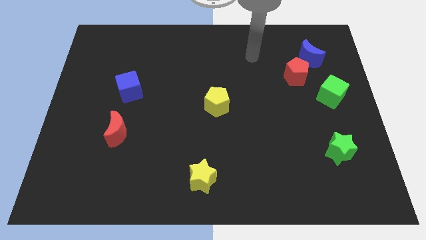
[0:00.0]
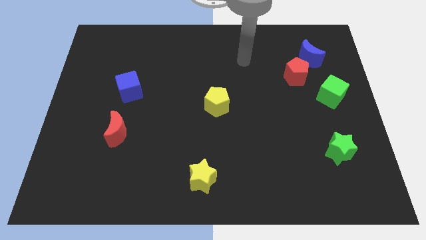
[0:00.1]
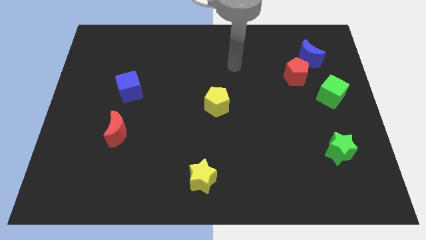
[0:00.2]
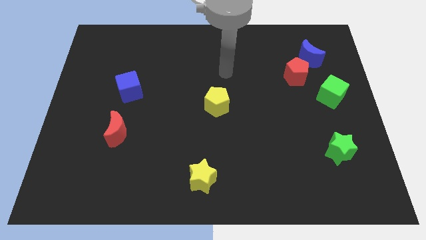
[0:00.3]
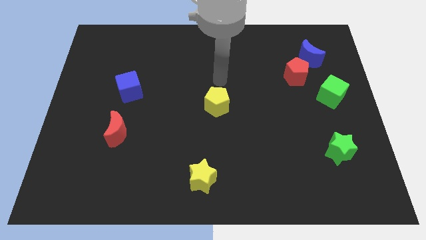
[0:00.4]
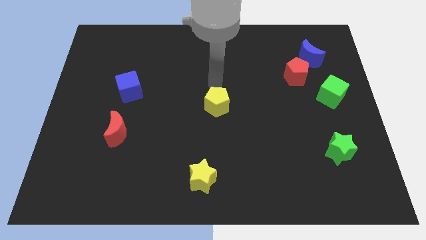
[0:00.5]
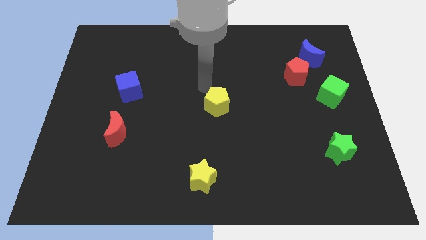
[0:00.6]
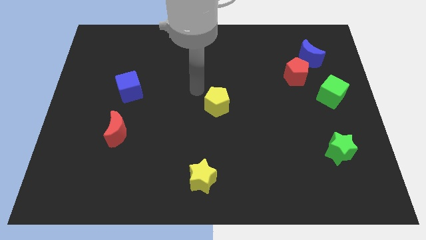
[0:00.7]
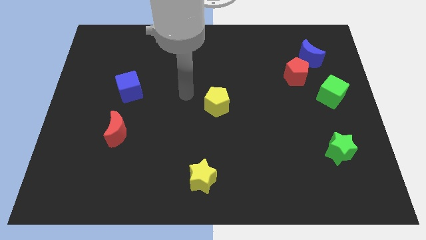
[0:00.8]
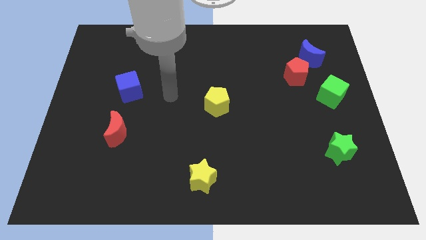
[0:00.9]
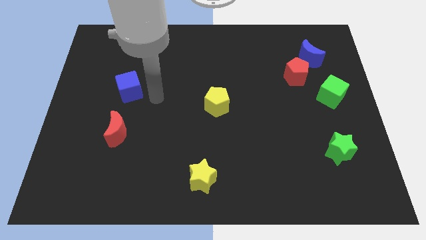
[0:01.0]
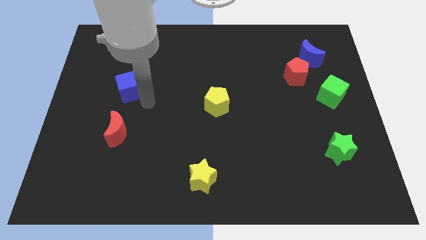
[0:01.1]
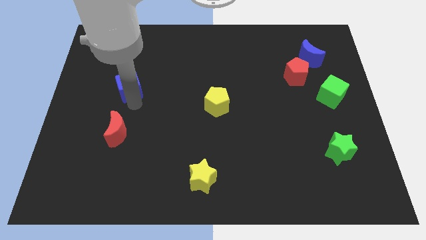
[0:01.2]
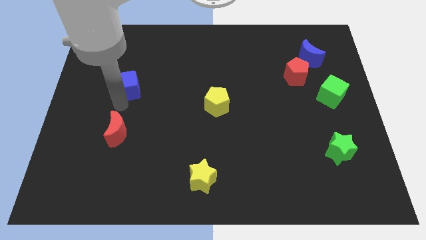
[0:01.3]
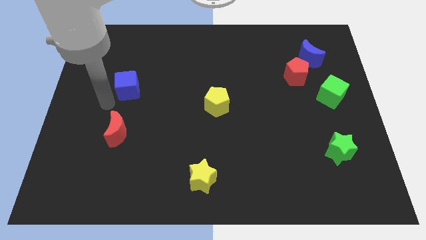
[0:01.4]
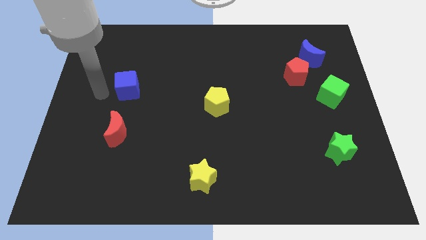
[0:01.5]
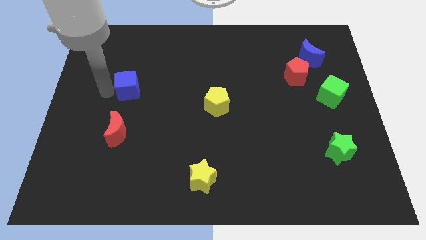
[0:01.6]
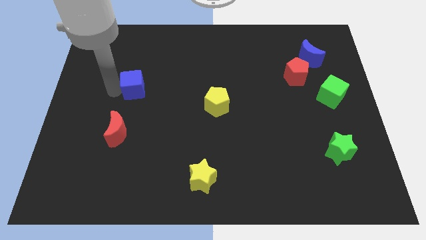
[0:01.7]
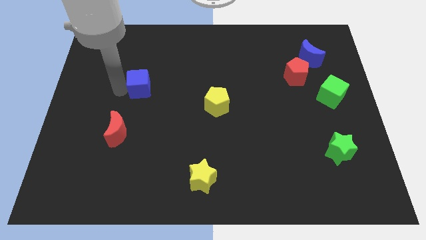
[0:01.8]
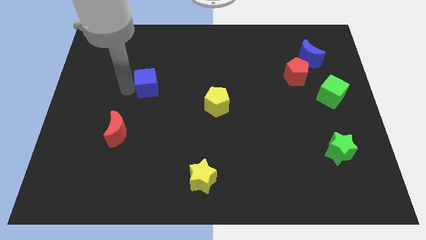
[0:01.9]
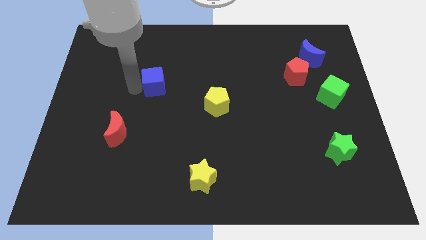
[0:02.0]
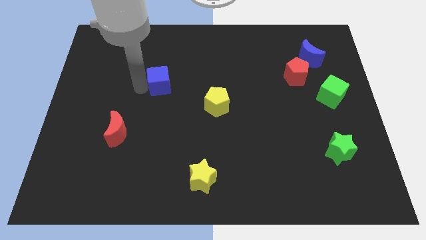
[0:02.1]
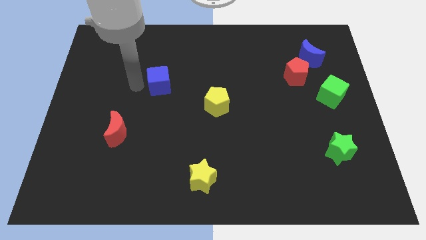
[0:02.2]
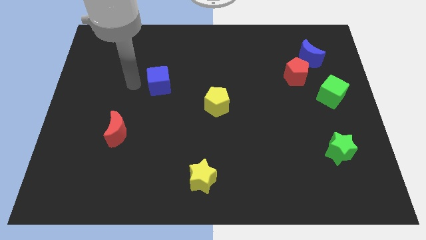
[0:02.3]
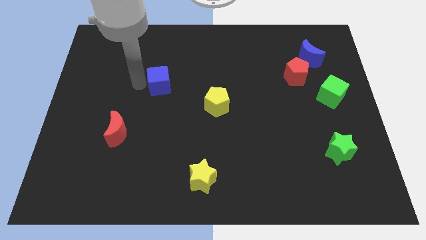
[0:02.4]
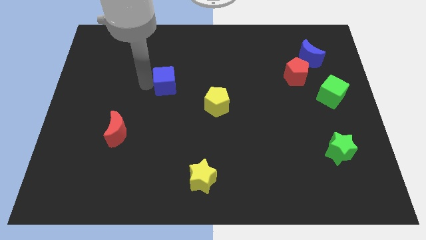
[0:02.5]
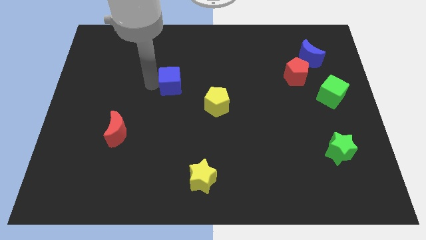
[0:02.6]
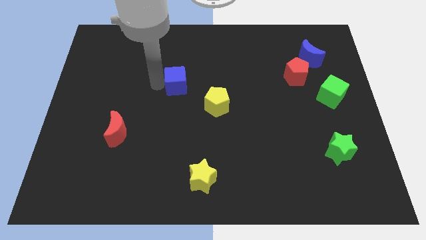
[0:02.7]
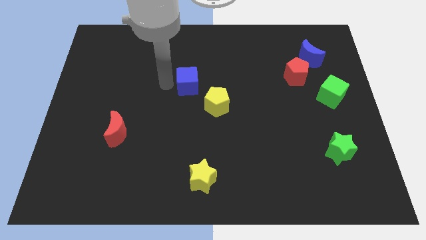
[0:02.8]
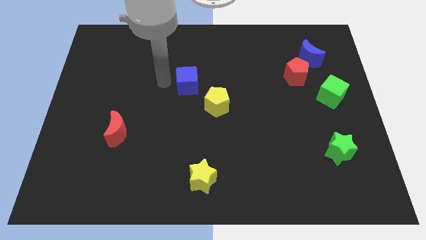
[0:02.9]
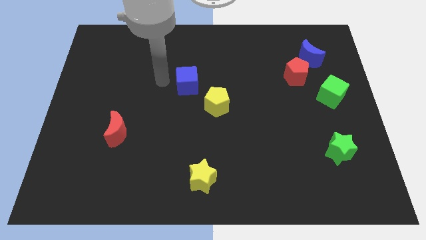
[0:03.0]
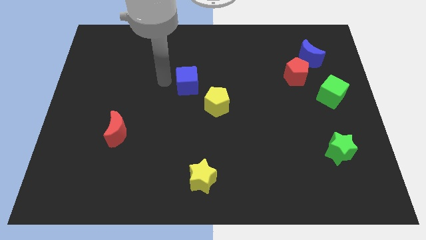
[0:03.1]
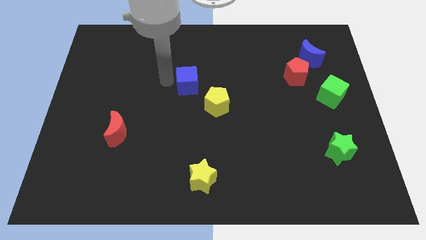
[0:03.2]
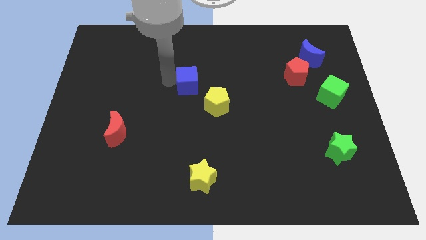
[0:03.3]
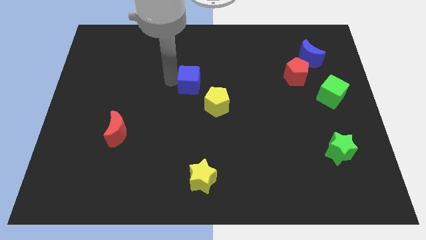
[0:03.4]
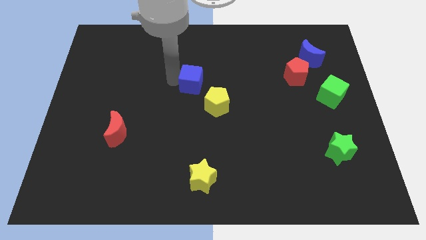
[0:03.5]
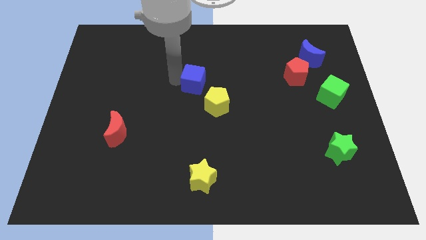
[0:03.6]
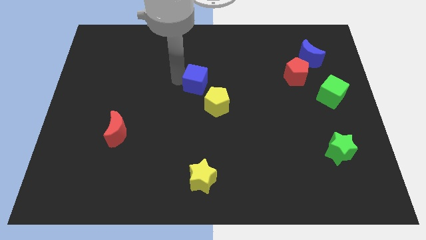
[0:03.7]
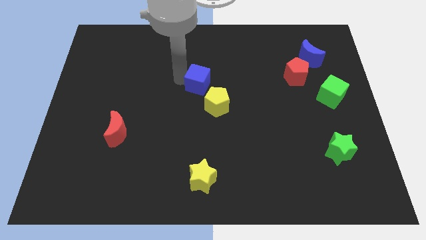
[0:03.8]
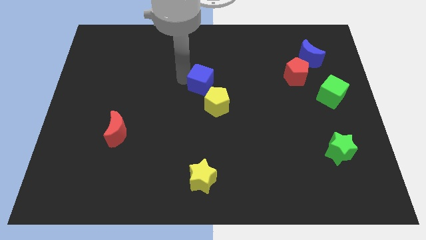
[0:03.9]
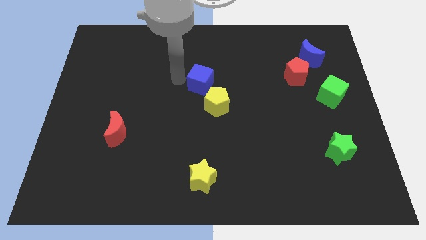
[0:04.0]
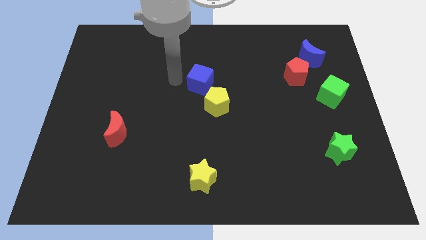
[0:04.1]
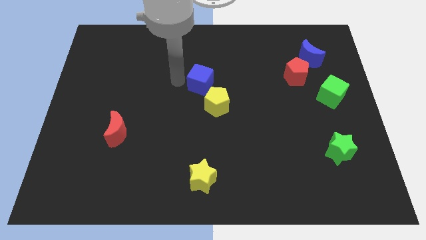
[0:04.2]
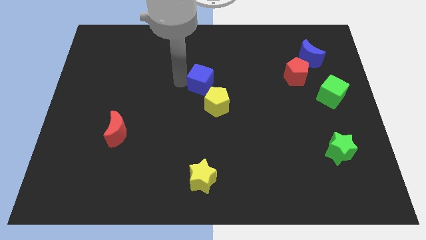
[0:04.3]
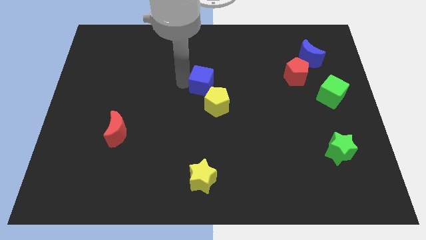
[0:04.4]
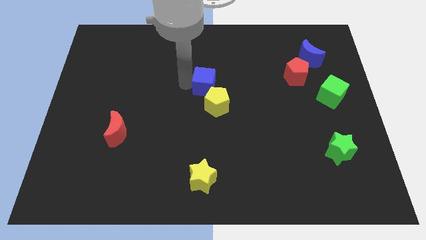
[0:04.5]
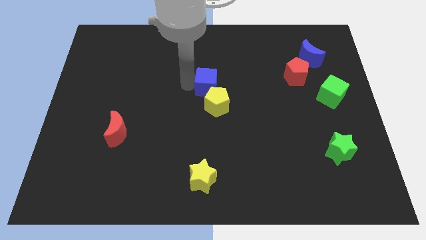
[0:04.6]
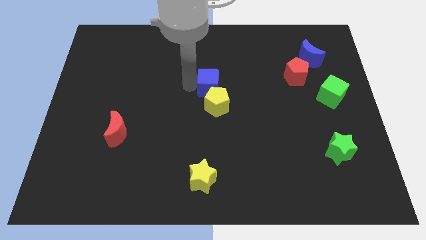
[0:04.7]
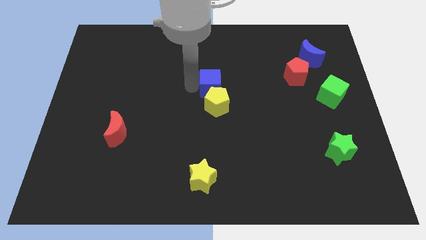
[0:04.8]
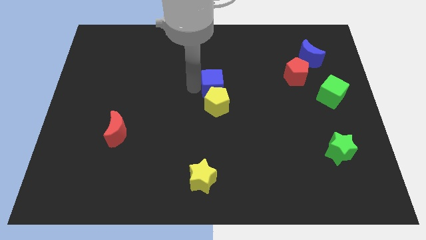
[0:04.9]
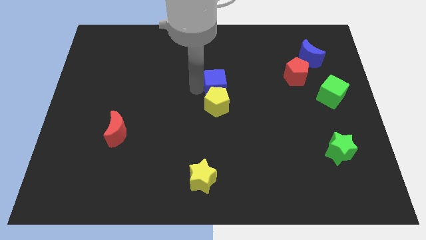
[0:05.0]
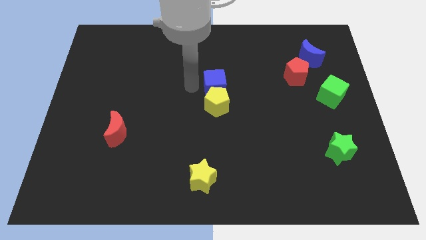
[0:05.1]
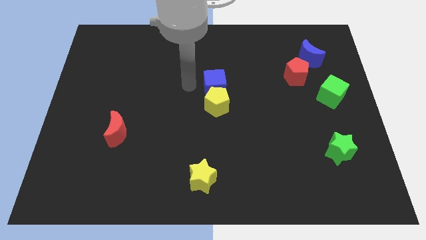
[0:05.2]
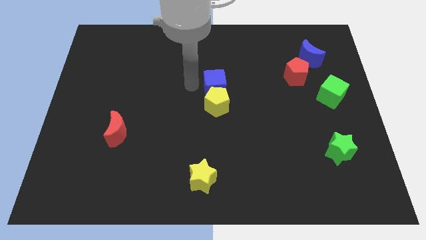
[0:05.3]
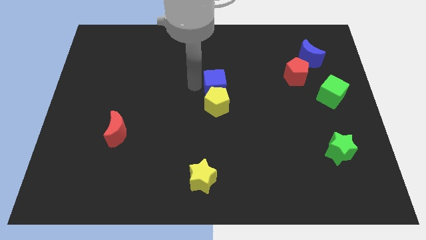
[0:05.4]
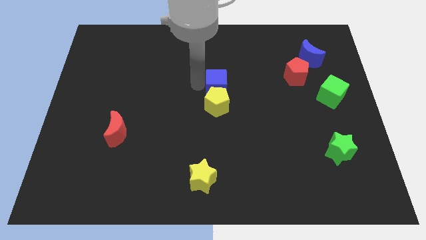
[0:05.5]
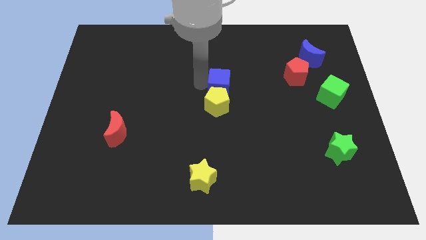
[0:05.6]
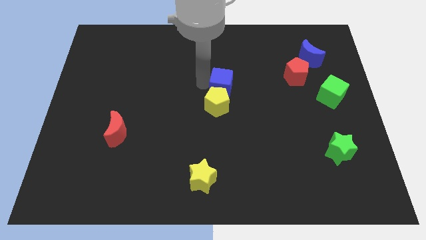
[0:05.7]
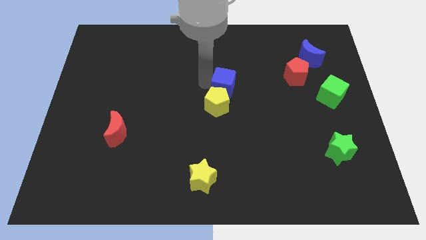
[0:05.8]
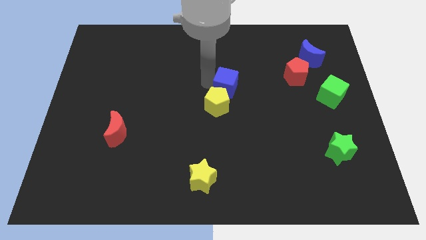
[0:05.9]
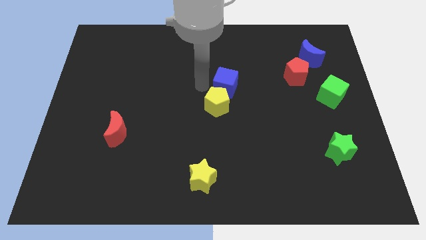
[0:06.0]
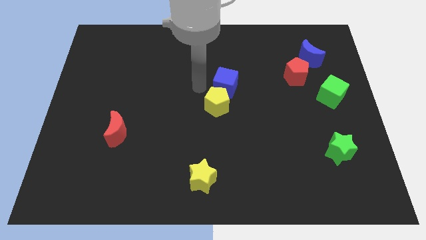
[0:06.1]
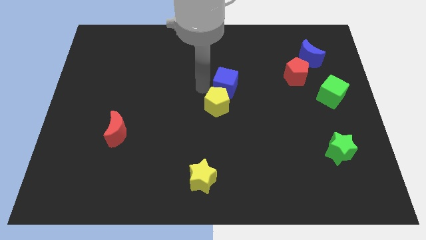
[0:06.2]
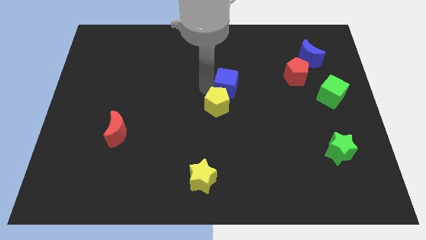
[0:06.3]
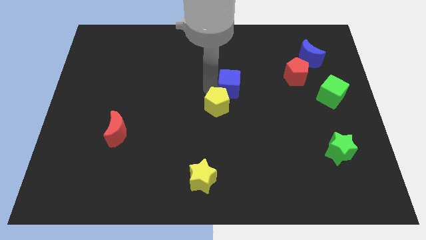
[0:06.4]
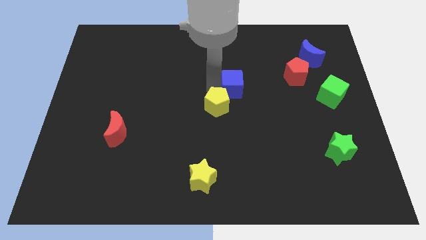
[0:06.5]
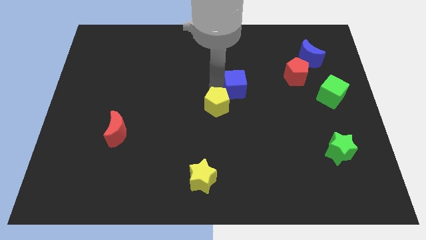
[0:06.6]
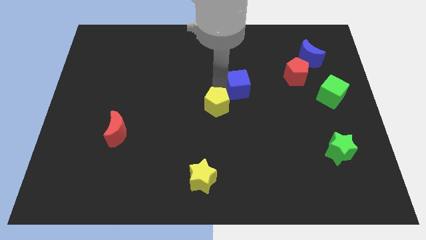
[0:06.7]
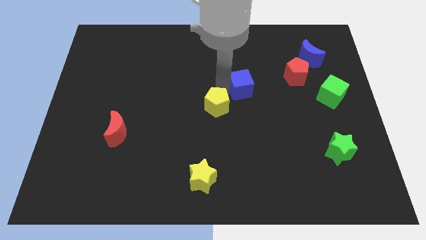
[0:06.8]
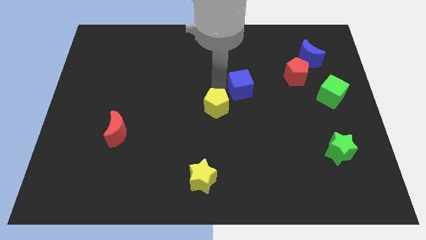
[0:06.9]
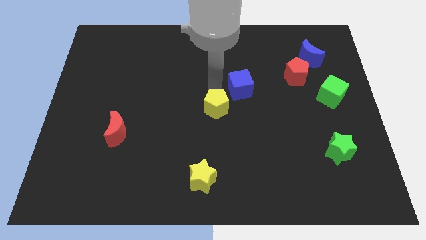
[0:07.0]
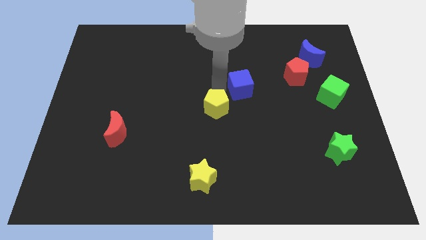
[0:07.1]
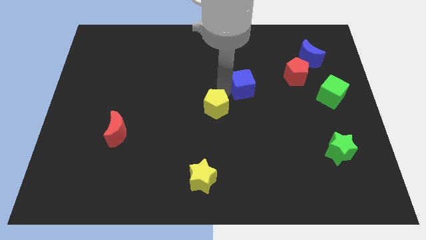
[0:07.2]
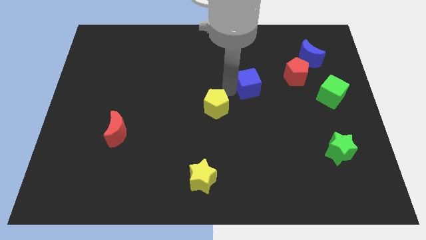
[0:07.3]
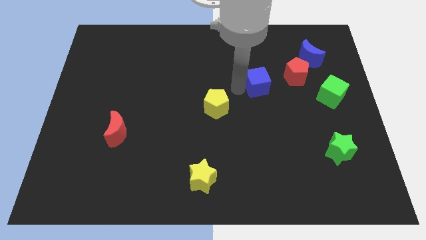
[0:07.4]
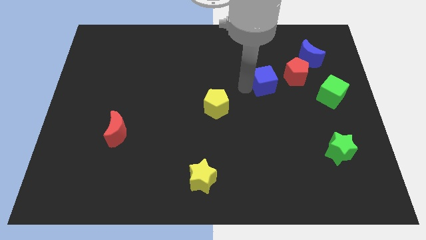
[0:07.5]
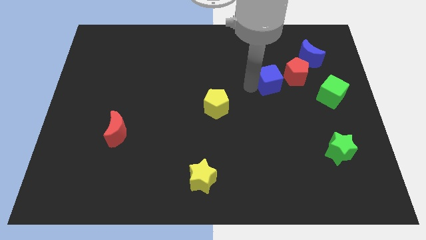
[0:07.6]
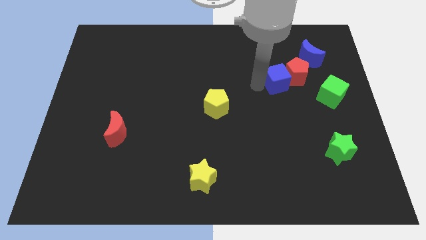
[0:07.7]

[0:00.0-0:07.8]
put the blue cube towards the red pentagon
